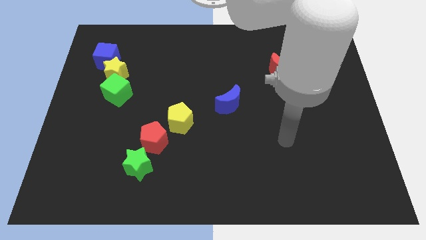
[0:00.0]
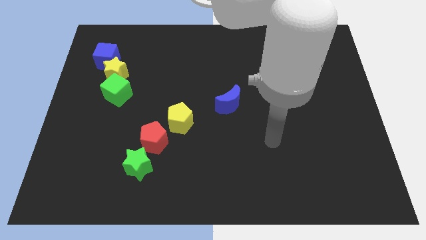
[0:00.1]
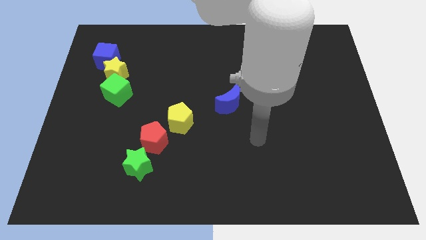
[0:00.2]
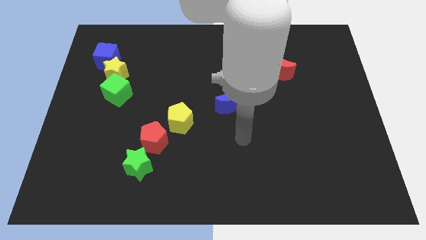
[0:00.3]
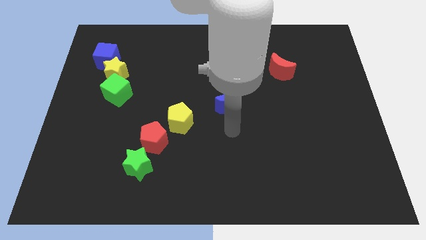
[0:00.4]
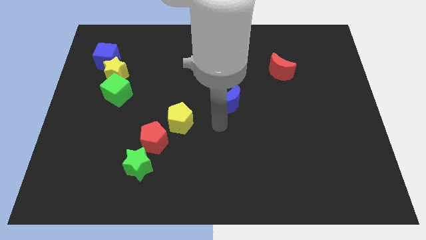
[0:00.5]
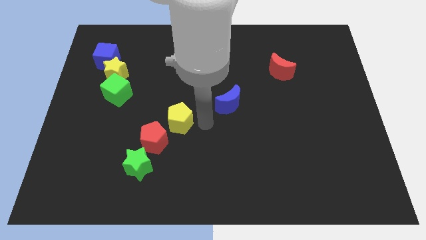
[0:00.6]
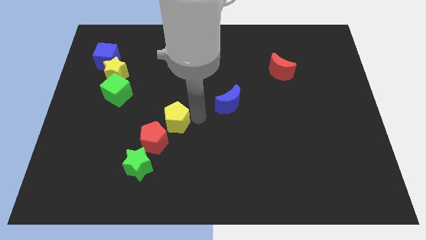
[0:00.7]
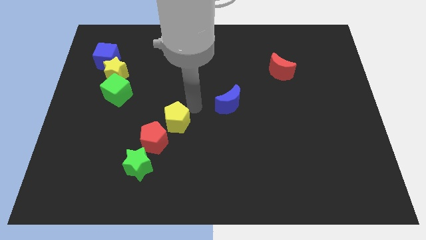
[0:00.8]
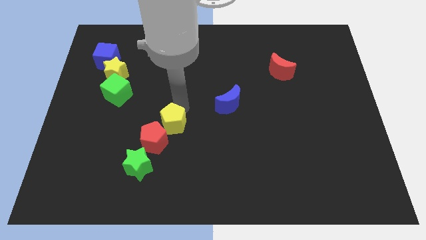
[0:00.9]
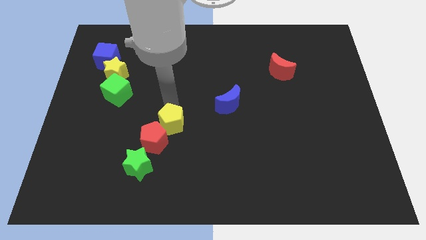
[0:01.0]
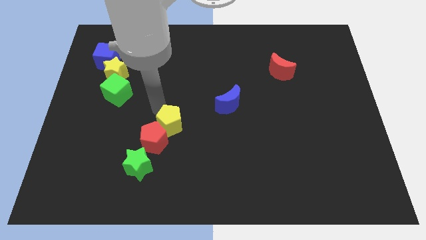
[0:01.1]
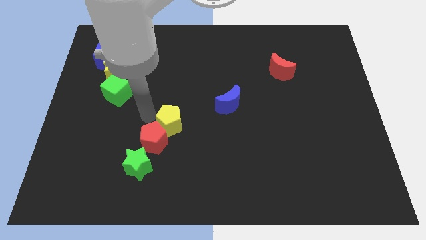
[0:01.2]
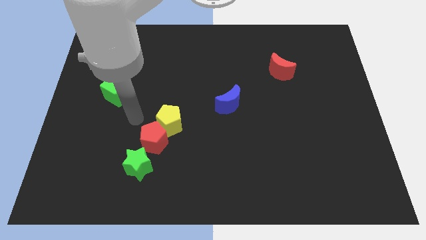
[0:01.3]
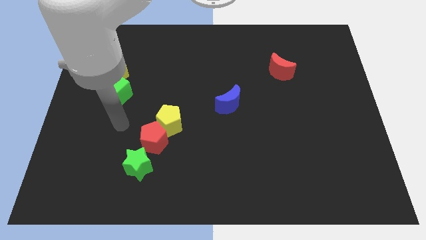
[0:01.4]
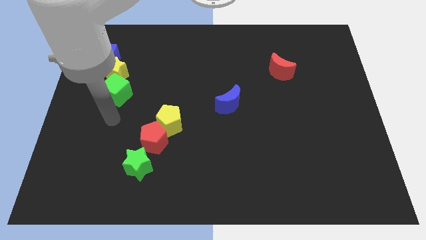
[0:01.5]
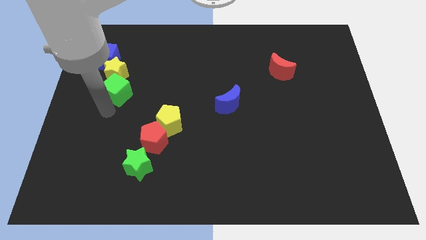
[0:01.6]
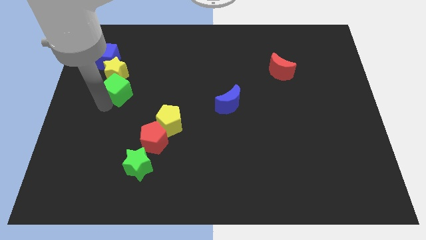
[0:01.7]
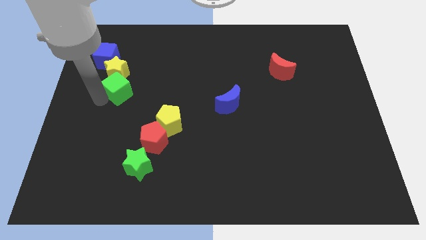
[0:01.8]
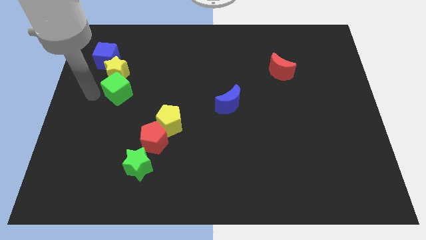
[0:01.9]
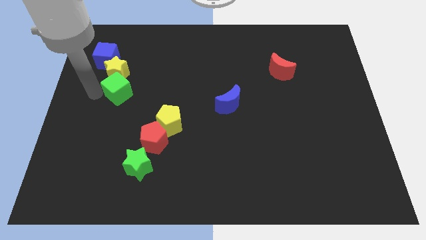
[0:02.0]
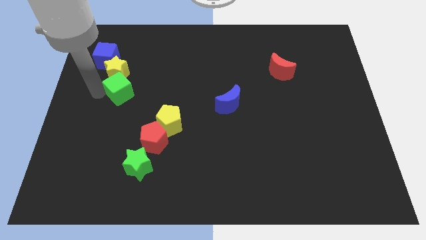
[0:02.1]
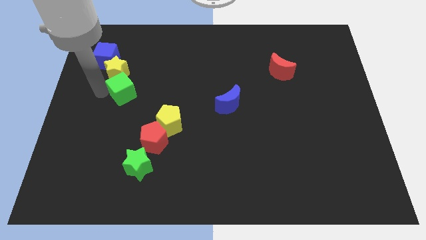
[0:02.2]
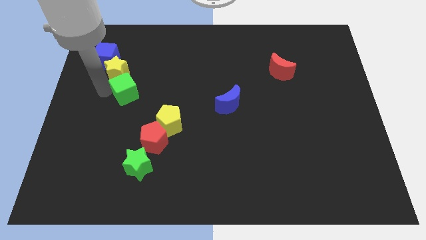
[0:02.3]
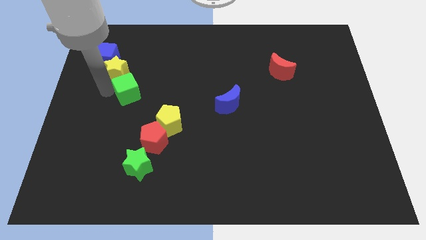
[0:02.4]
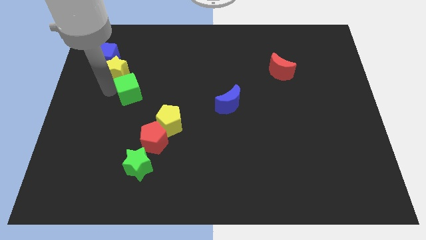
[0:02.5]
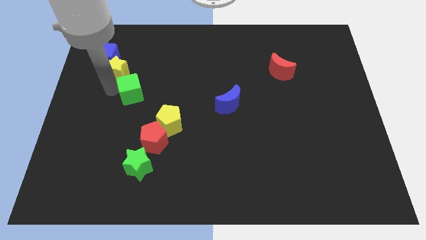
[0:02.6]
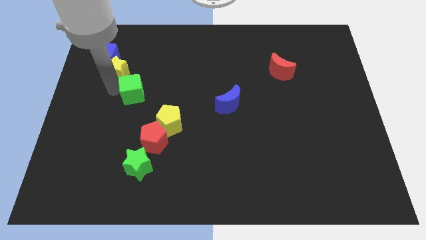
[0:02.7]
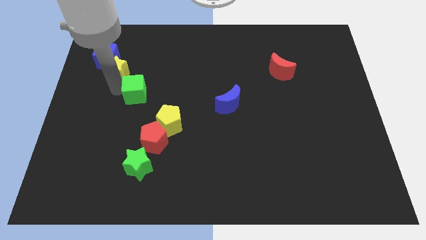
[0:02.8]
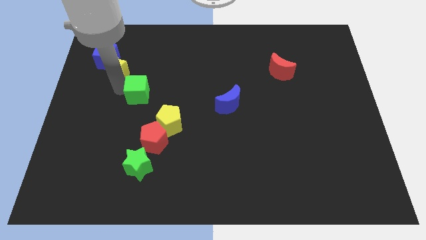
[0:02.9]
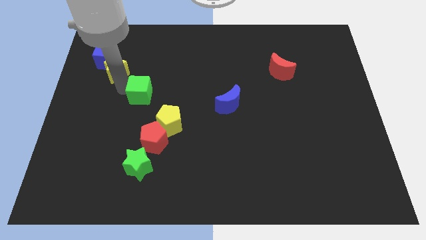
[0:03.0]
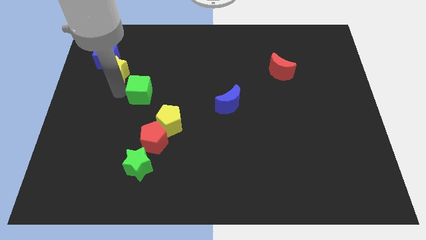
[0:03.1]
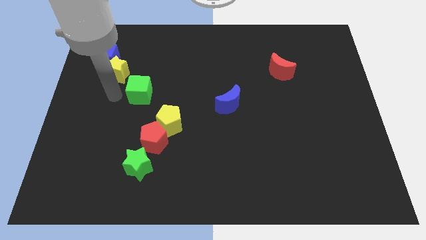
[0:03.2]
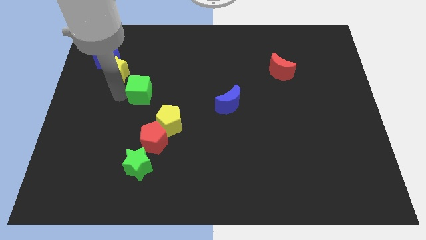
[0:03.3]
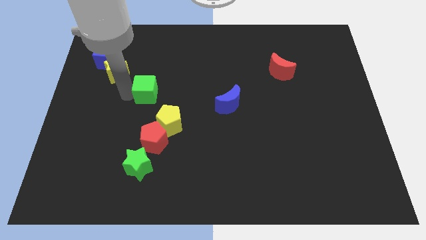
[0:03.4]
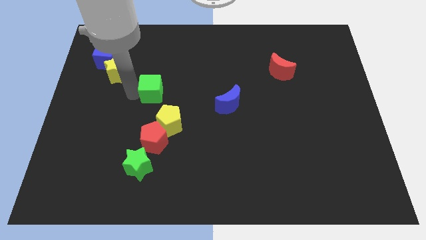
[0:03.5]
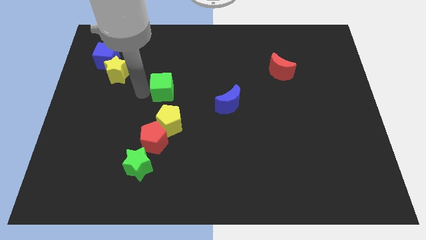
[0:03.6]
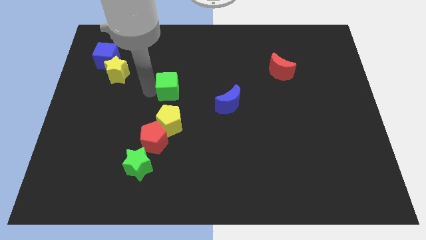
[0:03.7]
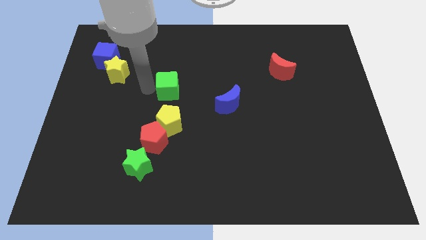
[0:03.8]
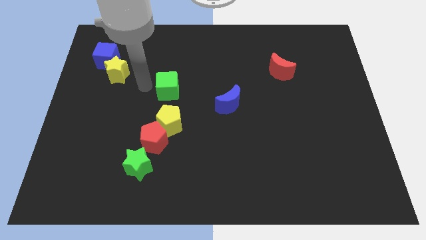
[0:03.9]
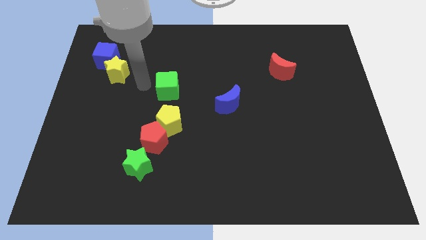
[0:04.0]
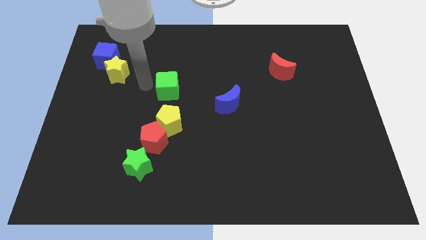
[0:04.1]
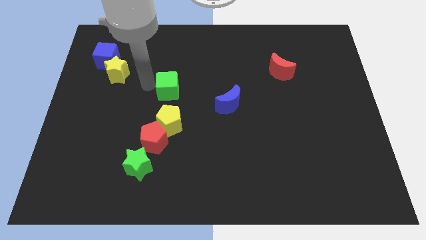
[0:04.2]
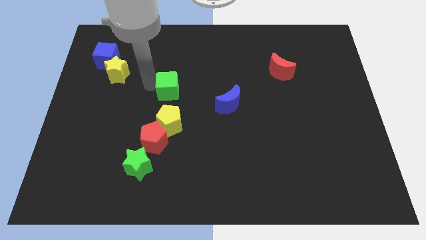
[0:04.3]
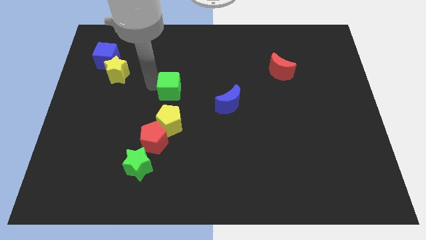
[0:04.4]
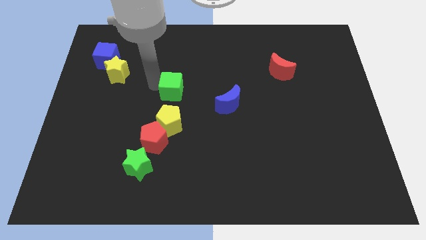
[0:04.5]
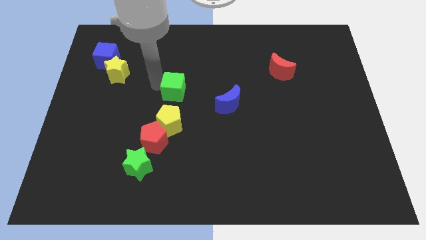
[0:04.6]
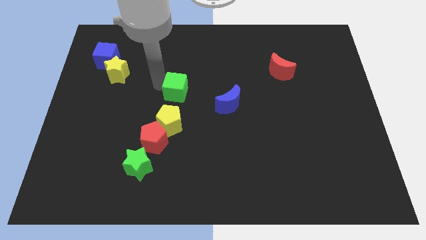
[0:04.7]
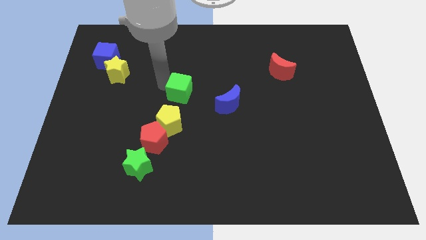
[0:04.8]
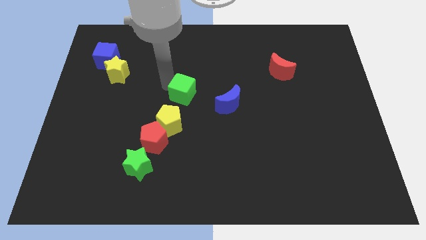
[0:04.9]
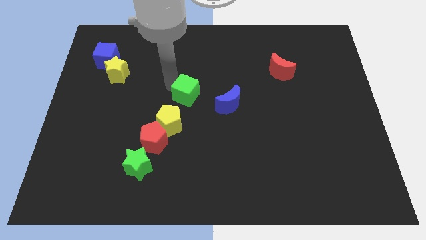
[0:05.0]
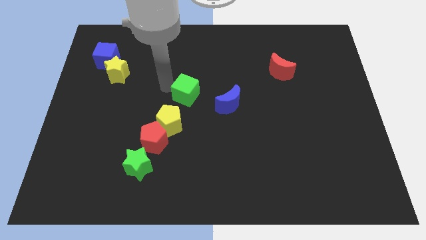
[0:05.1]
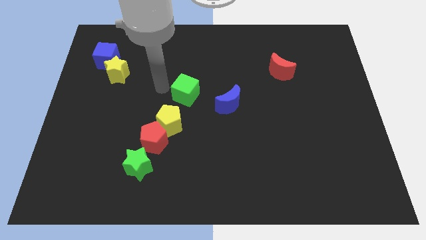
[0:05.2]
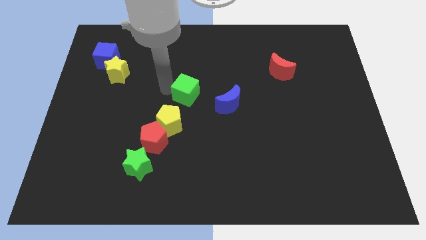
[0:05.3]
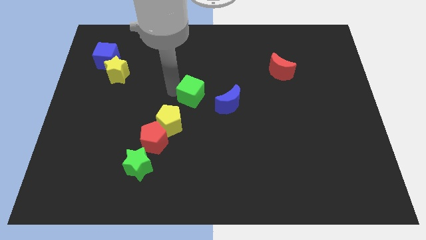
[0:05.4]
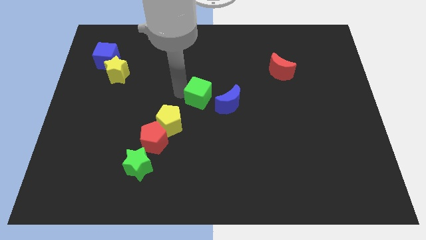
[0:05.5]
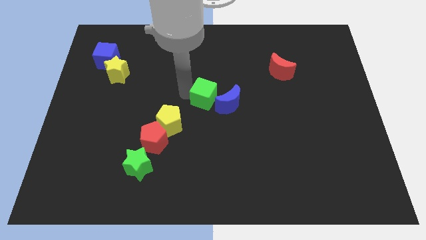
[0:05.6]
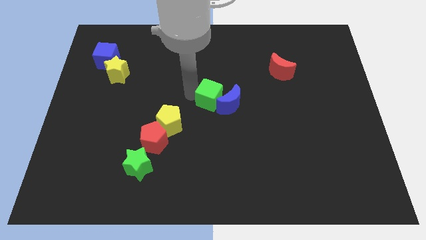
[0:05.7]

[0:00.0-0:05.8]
slide the green cube close to the blue moon

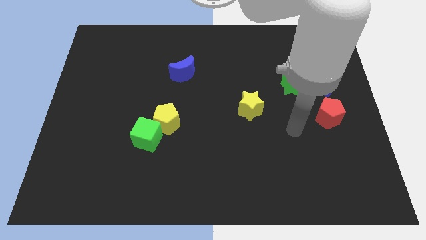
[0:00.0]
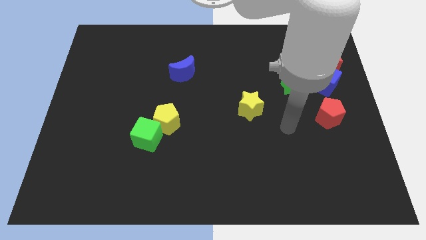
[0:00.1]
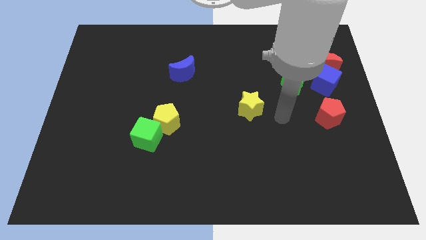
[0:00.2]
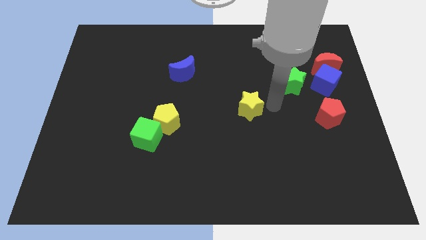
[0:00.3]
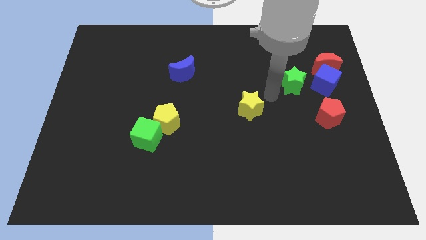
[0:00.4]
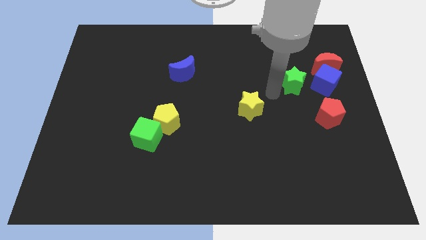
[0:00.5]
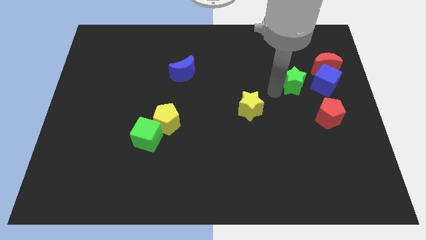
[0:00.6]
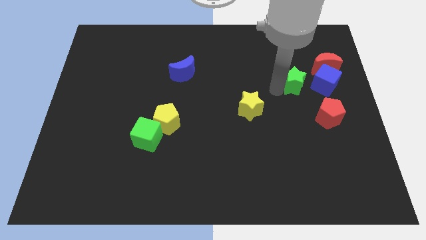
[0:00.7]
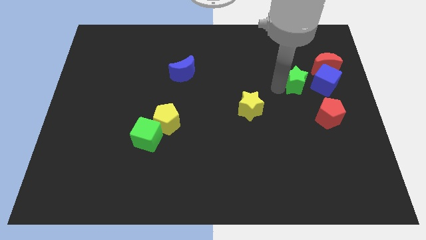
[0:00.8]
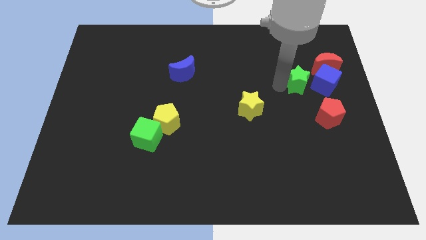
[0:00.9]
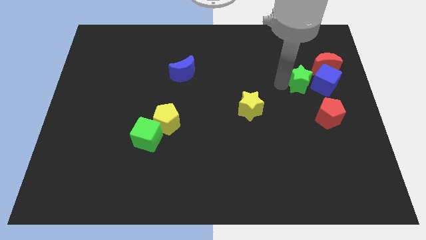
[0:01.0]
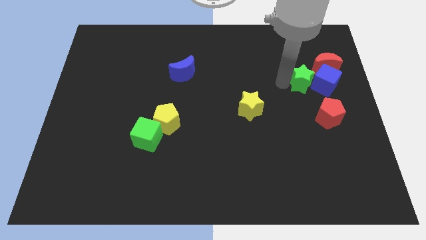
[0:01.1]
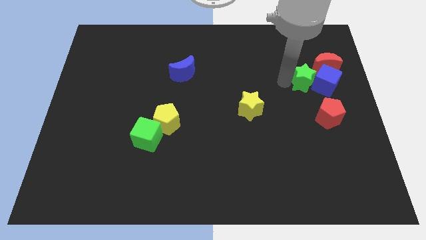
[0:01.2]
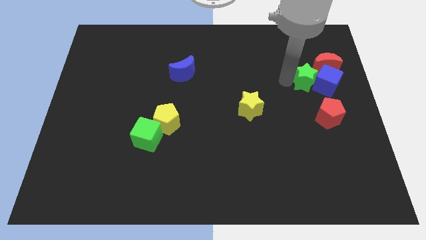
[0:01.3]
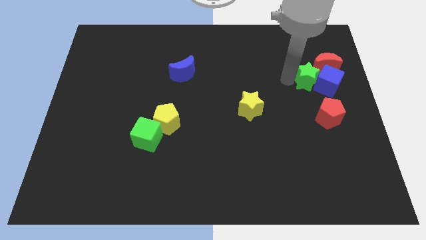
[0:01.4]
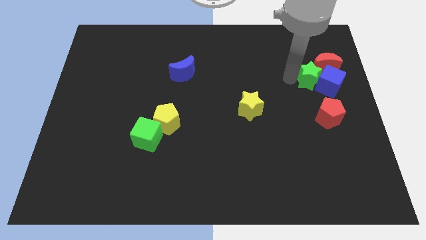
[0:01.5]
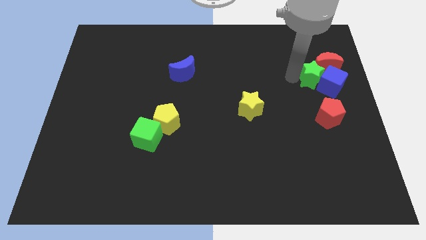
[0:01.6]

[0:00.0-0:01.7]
move the green star close to the red moon

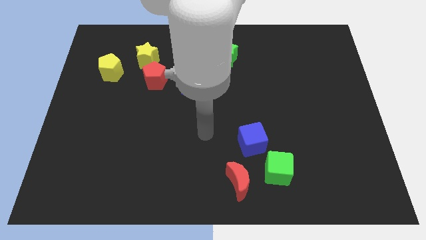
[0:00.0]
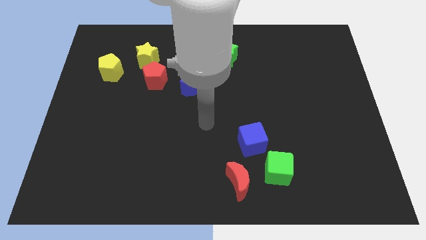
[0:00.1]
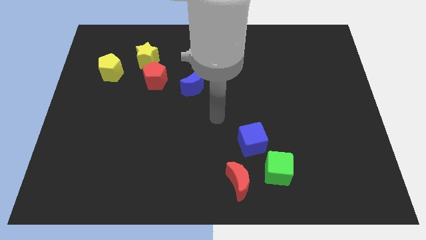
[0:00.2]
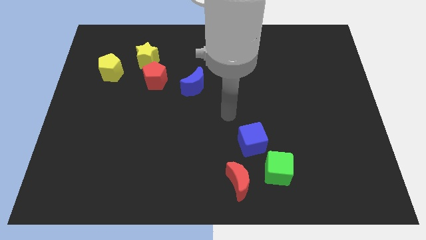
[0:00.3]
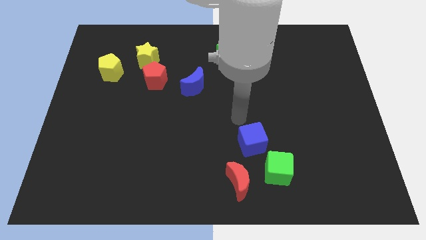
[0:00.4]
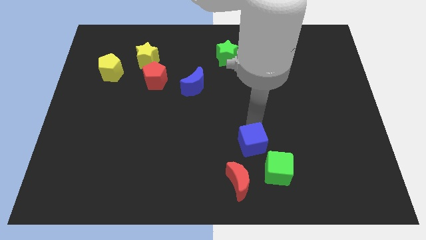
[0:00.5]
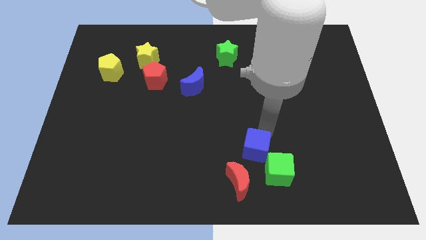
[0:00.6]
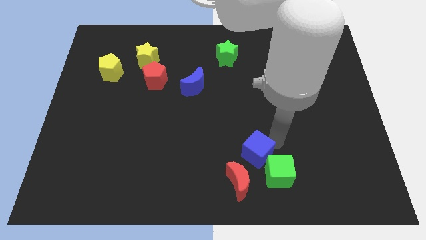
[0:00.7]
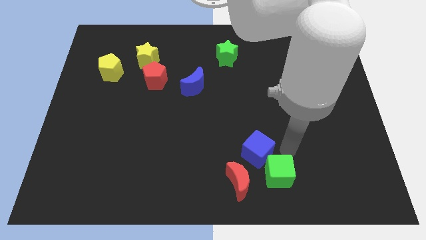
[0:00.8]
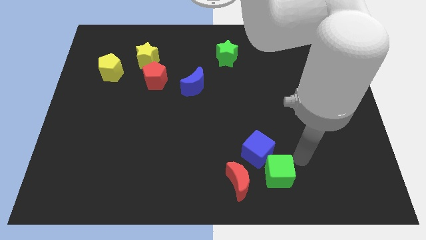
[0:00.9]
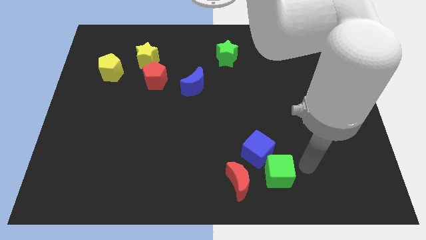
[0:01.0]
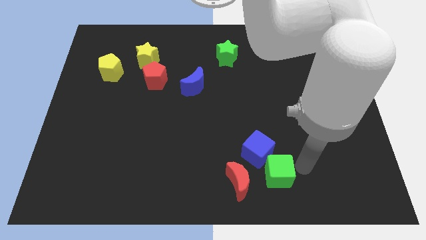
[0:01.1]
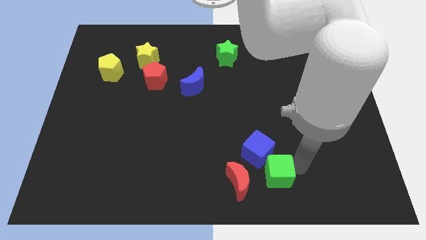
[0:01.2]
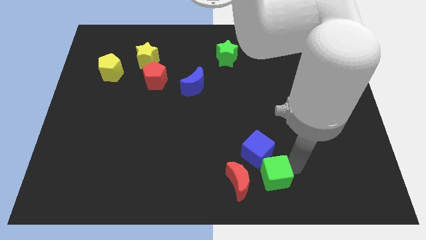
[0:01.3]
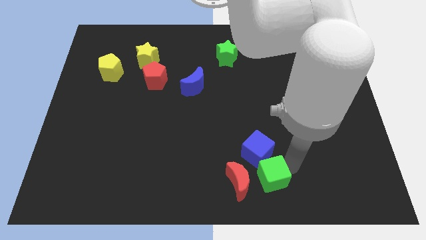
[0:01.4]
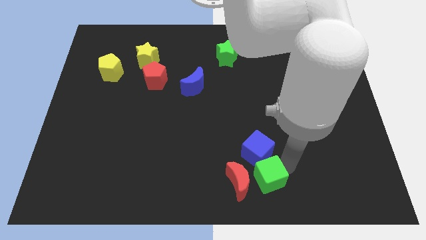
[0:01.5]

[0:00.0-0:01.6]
move the green cube close to the red moon
